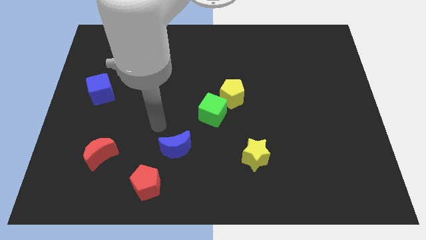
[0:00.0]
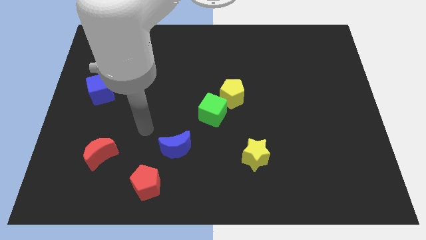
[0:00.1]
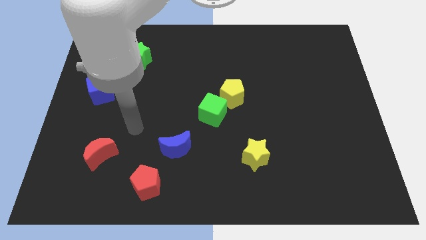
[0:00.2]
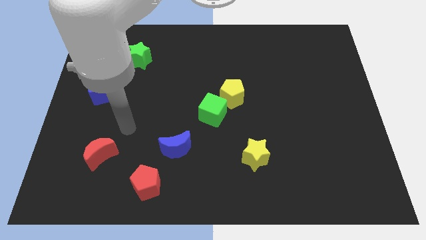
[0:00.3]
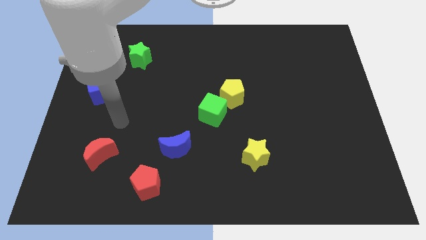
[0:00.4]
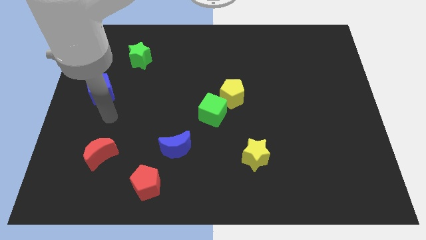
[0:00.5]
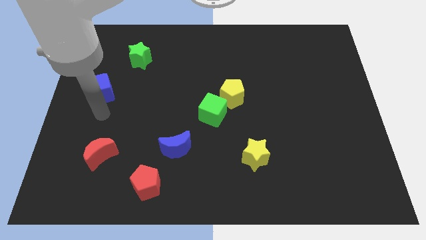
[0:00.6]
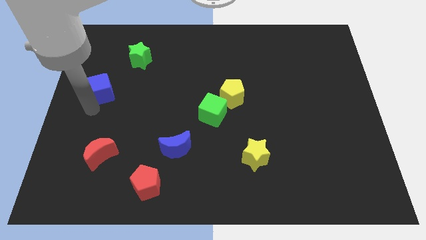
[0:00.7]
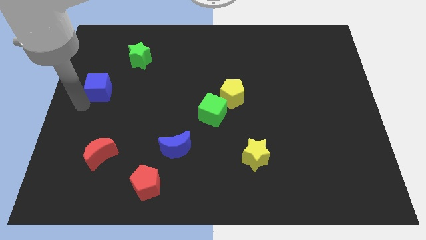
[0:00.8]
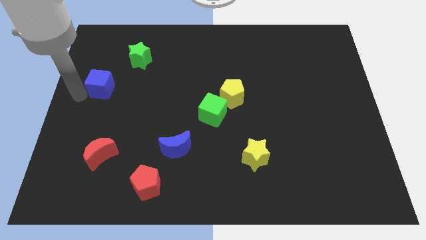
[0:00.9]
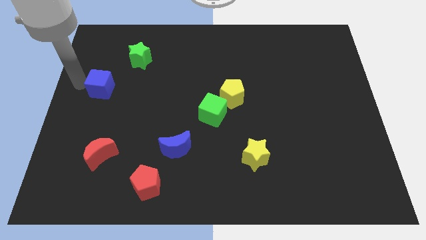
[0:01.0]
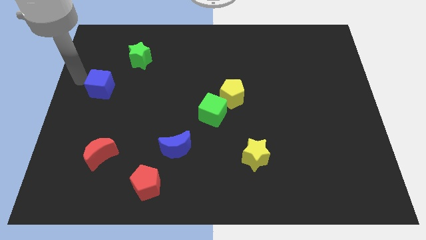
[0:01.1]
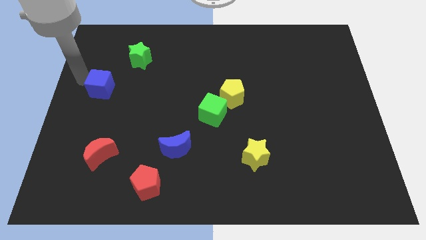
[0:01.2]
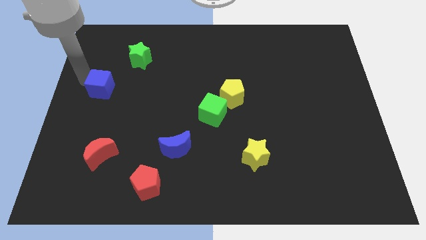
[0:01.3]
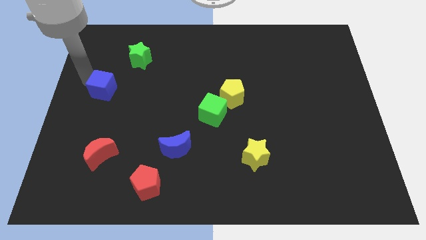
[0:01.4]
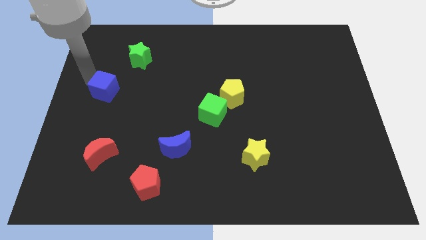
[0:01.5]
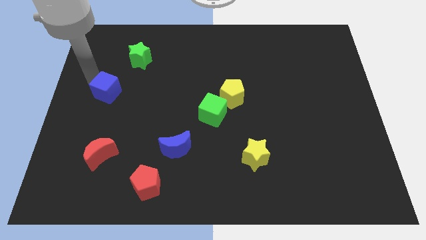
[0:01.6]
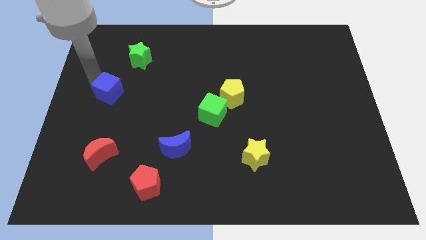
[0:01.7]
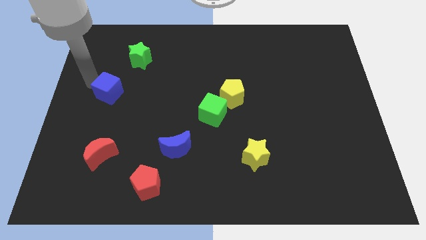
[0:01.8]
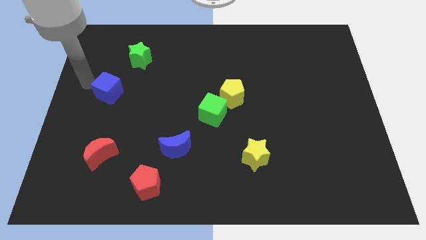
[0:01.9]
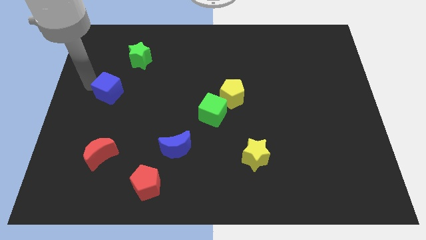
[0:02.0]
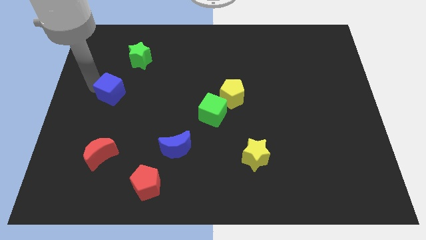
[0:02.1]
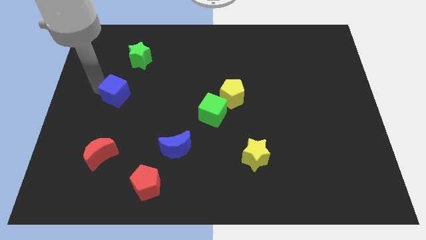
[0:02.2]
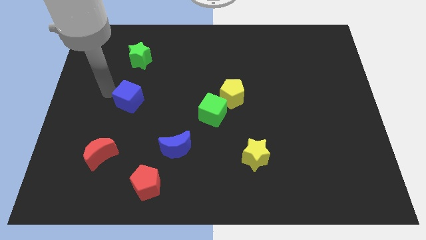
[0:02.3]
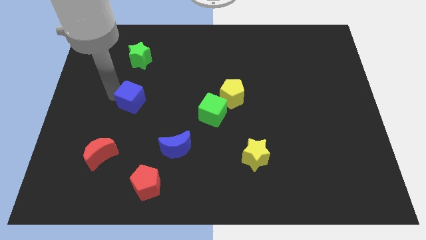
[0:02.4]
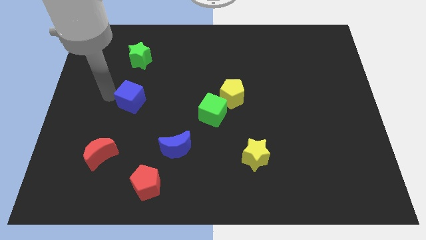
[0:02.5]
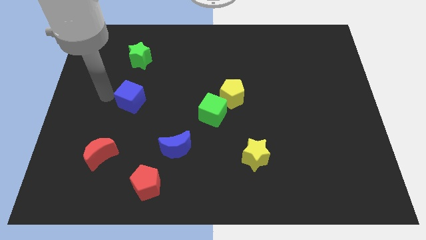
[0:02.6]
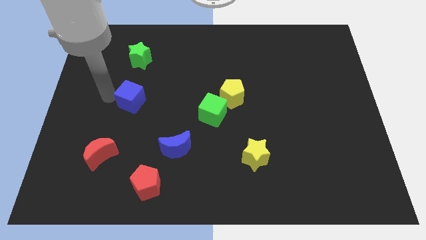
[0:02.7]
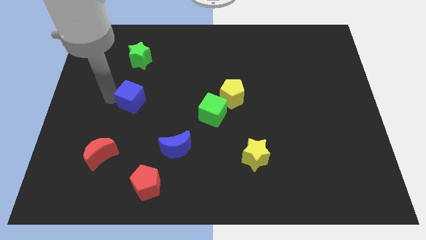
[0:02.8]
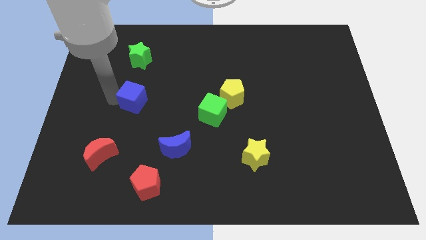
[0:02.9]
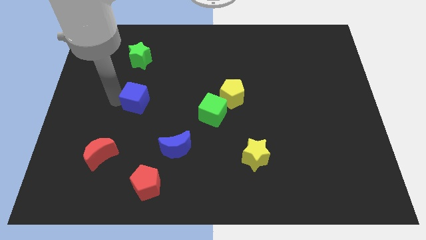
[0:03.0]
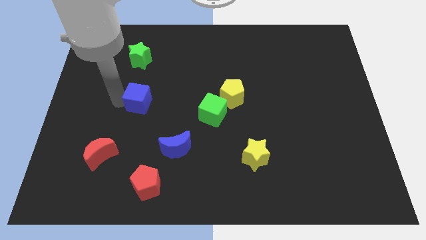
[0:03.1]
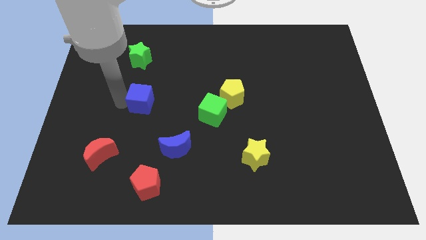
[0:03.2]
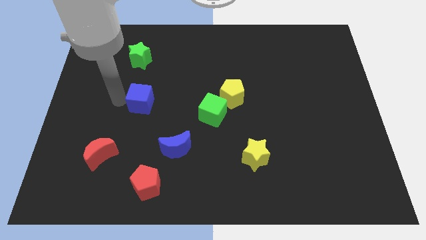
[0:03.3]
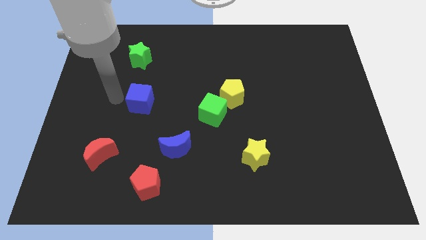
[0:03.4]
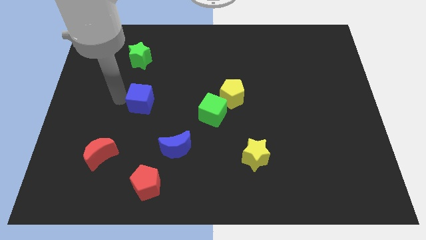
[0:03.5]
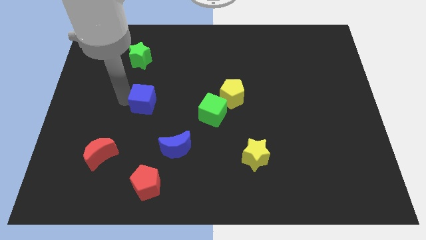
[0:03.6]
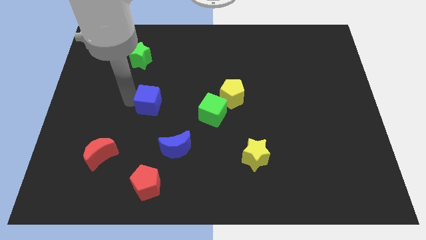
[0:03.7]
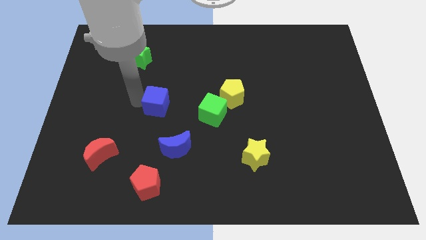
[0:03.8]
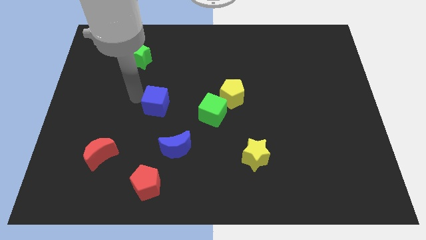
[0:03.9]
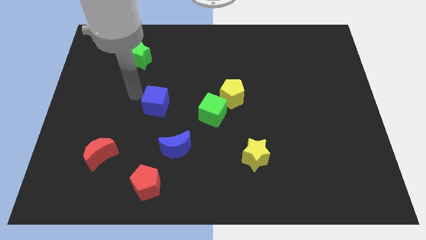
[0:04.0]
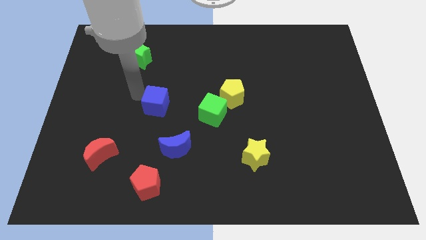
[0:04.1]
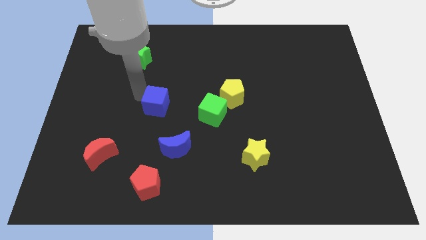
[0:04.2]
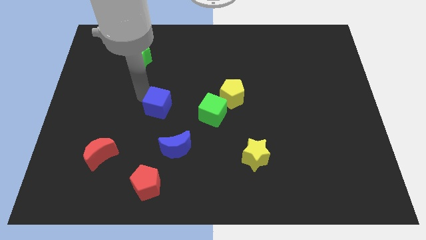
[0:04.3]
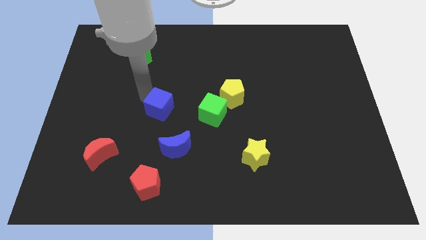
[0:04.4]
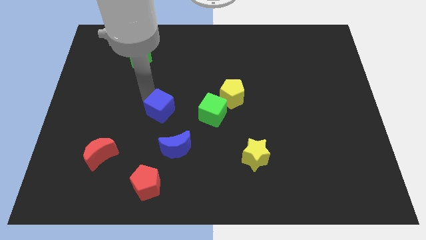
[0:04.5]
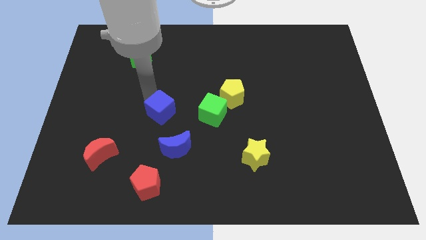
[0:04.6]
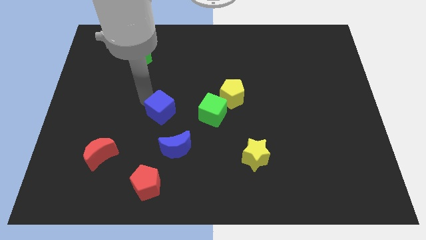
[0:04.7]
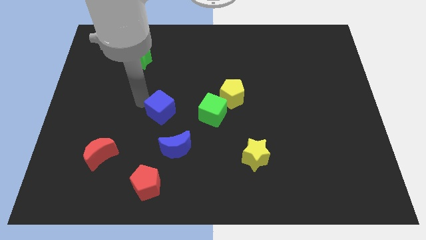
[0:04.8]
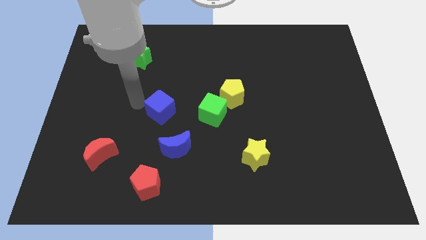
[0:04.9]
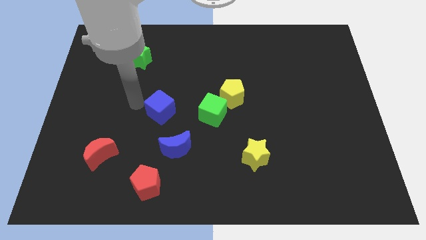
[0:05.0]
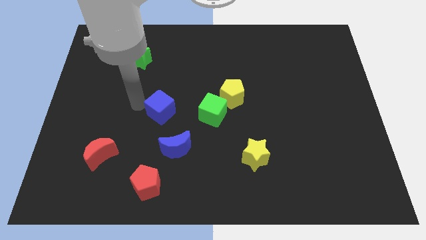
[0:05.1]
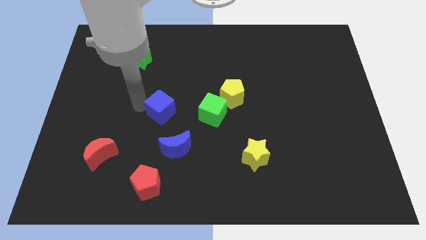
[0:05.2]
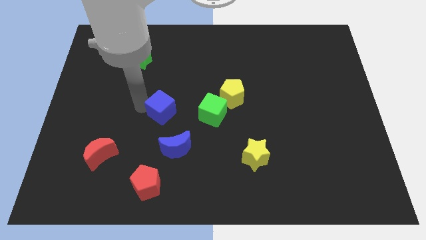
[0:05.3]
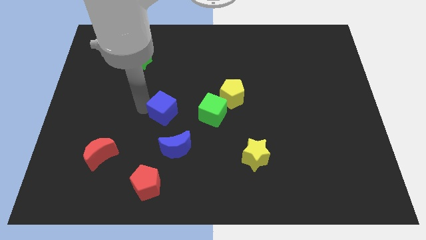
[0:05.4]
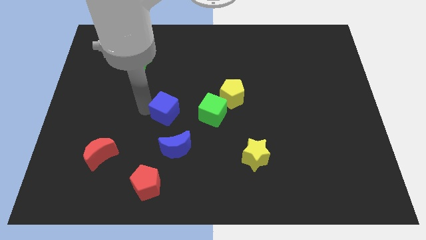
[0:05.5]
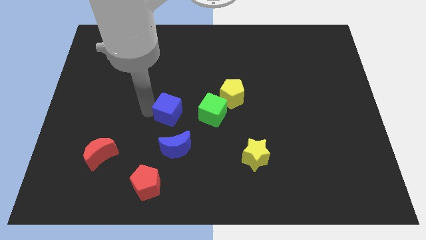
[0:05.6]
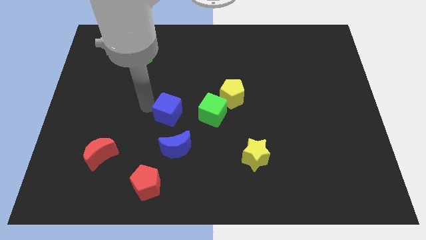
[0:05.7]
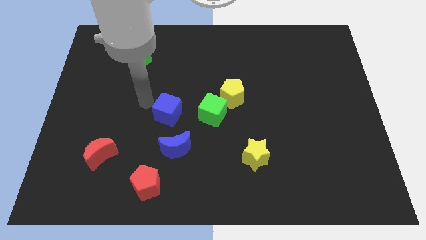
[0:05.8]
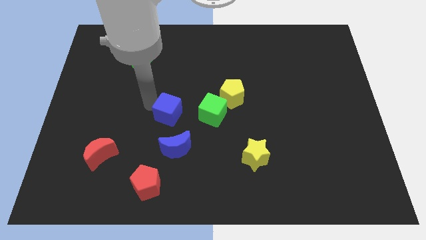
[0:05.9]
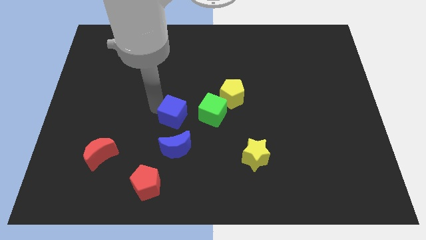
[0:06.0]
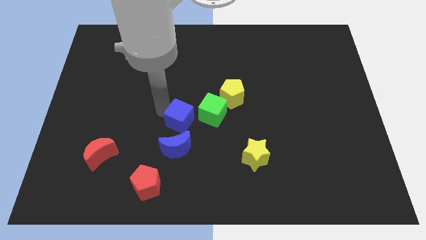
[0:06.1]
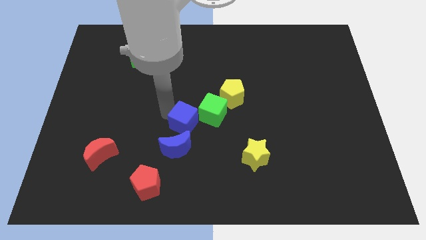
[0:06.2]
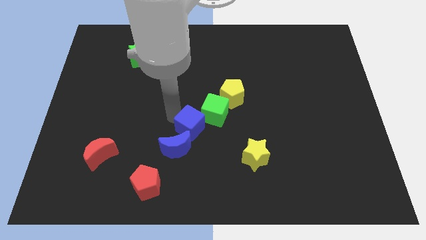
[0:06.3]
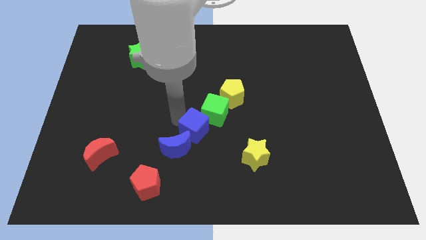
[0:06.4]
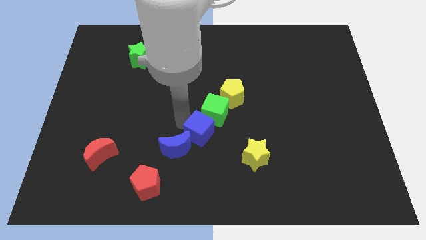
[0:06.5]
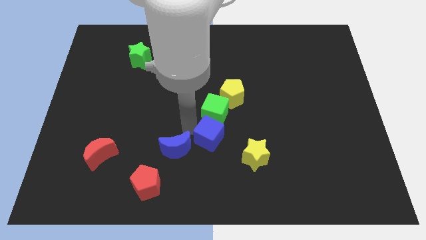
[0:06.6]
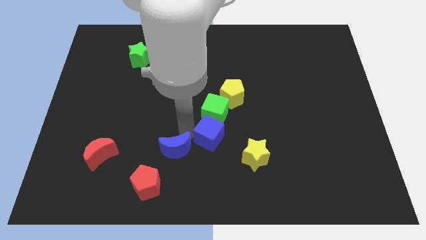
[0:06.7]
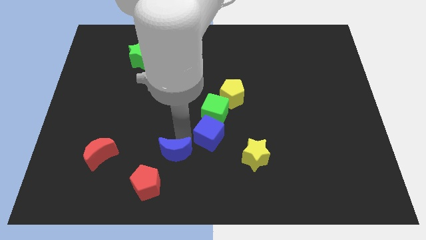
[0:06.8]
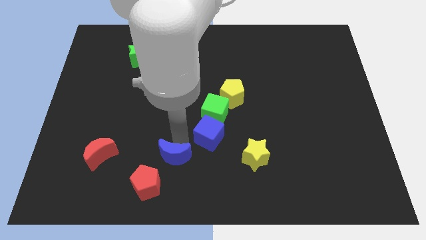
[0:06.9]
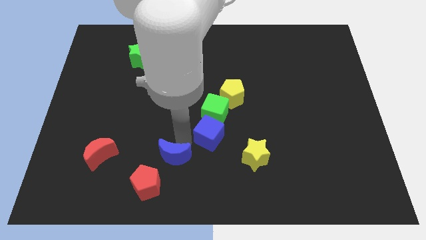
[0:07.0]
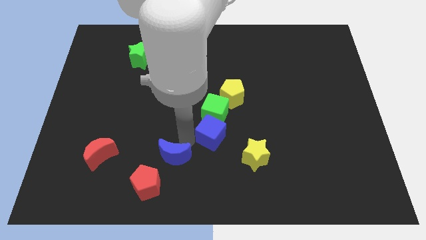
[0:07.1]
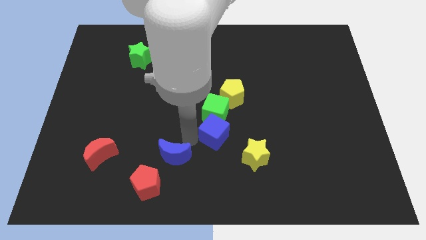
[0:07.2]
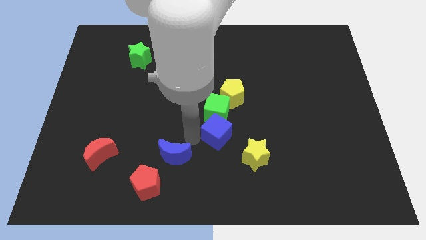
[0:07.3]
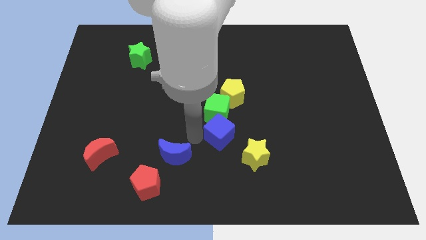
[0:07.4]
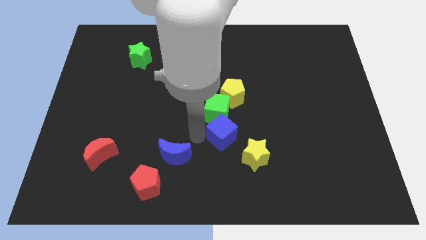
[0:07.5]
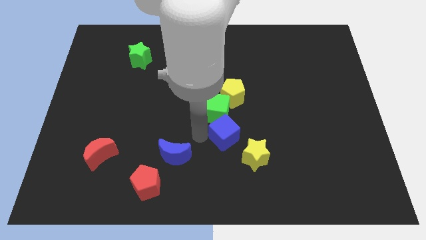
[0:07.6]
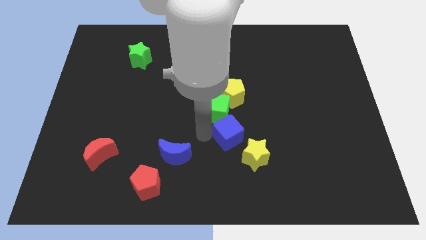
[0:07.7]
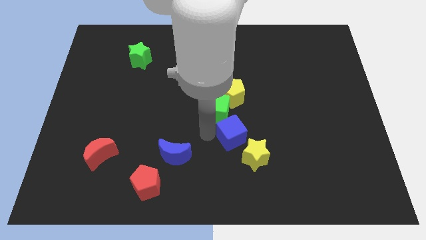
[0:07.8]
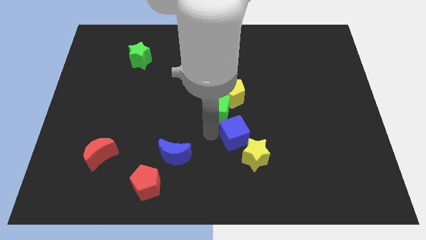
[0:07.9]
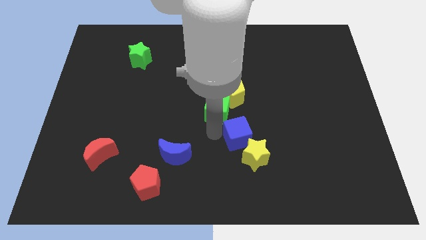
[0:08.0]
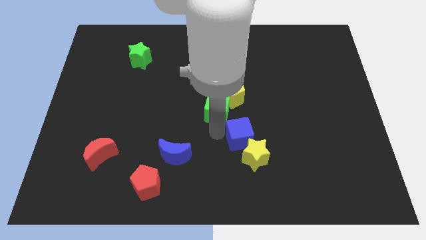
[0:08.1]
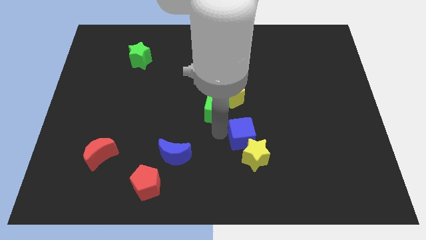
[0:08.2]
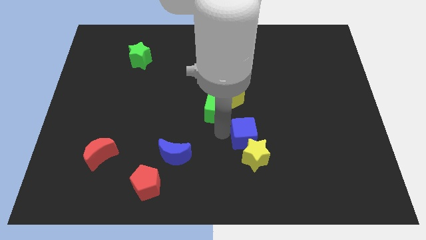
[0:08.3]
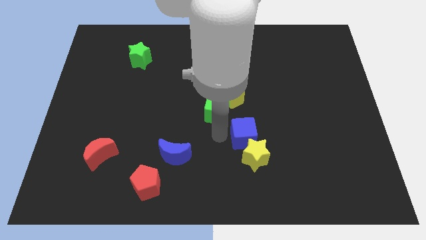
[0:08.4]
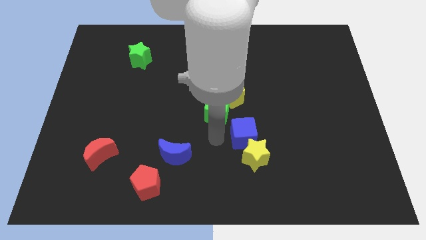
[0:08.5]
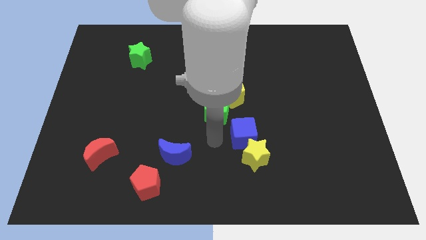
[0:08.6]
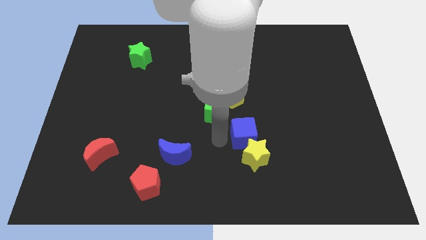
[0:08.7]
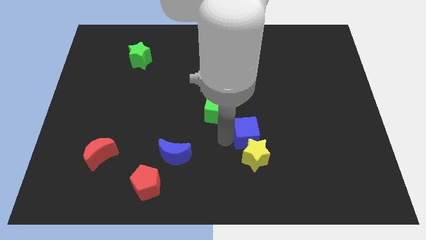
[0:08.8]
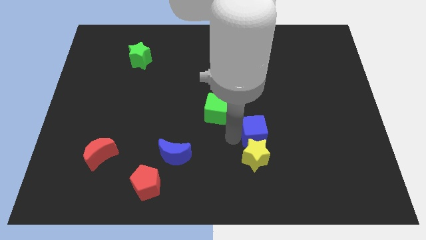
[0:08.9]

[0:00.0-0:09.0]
move the blue cube to the top right side of the yellow star
